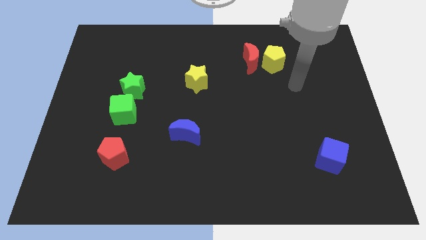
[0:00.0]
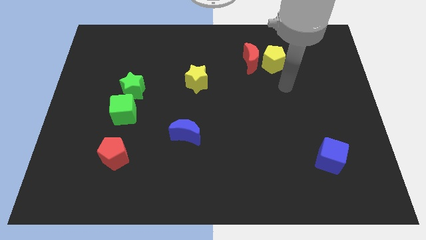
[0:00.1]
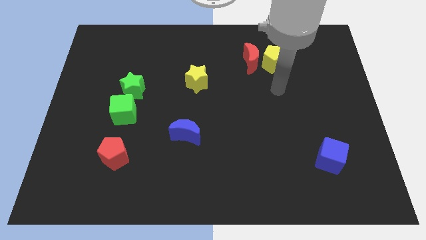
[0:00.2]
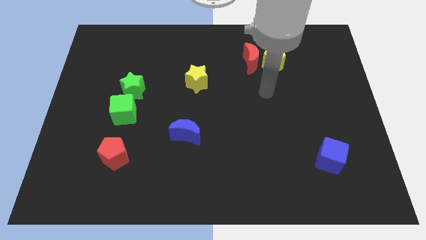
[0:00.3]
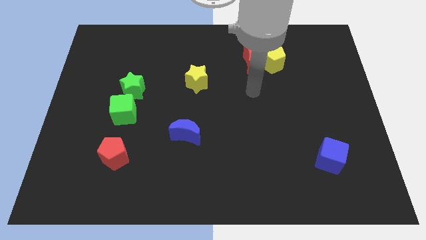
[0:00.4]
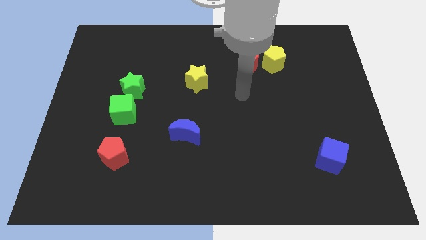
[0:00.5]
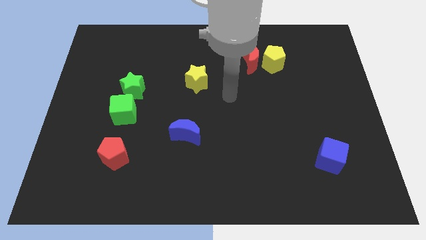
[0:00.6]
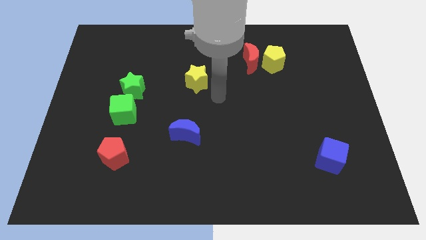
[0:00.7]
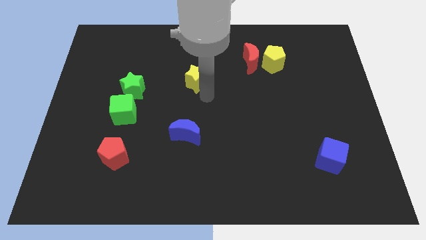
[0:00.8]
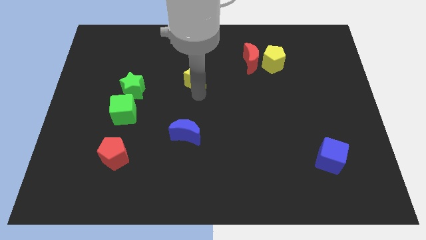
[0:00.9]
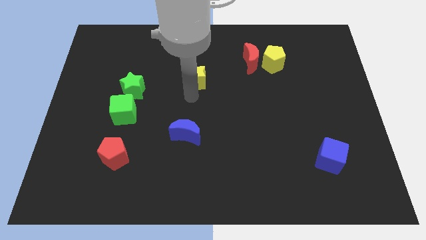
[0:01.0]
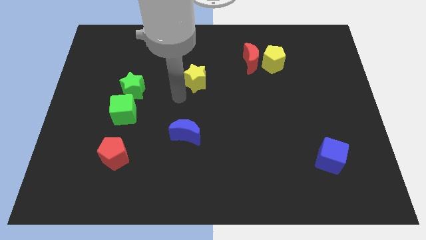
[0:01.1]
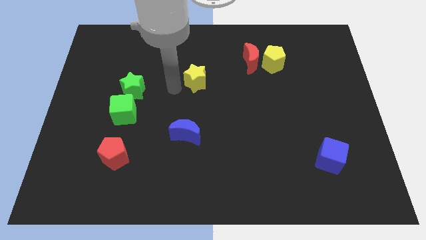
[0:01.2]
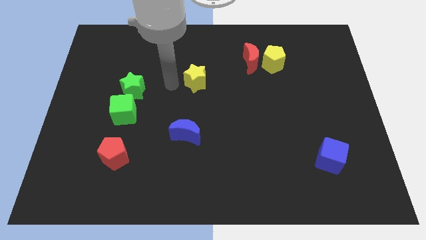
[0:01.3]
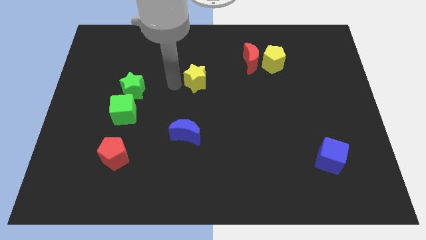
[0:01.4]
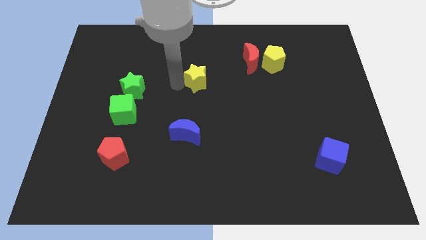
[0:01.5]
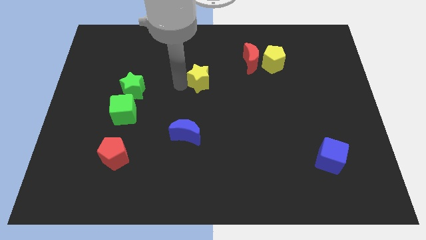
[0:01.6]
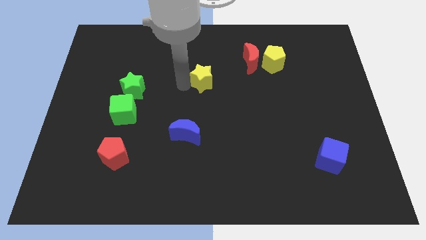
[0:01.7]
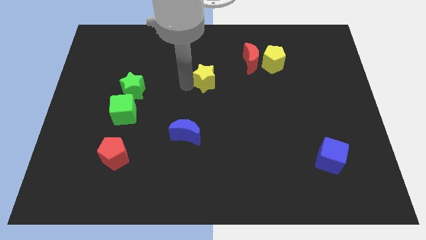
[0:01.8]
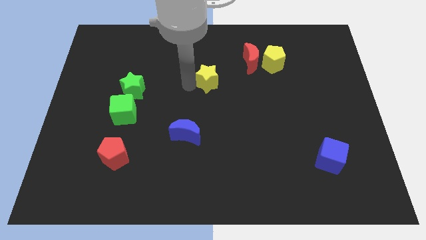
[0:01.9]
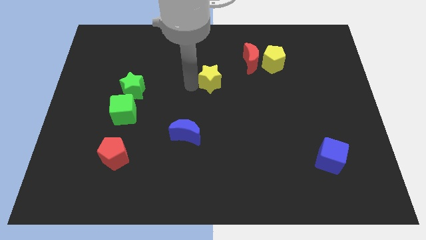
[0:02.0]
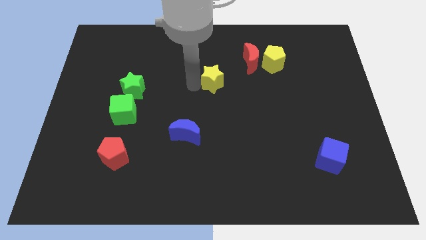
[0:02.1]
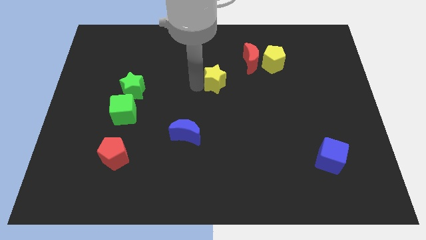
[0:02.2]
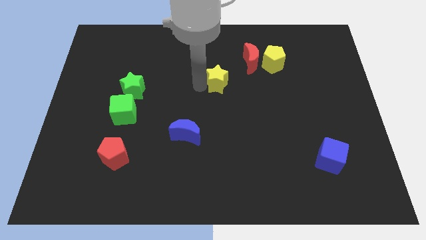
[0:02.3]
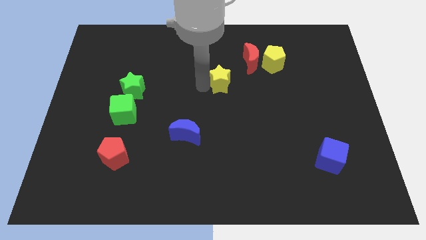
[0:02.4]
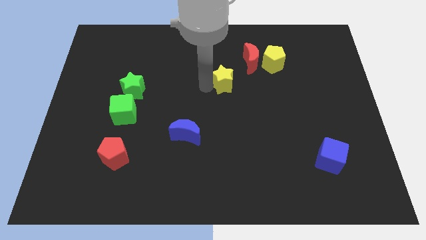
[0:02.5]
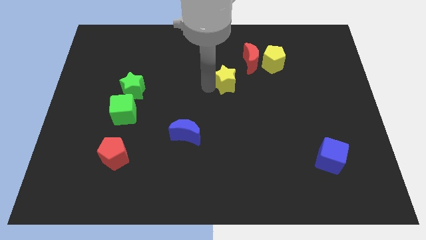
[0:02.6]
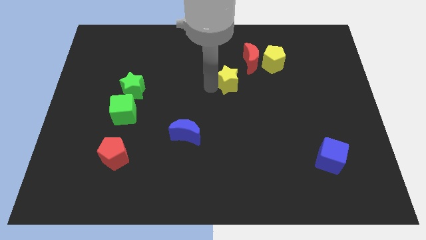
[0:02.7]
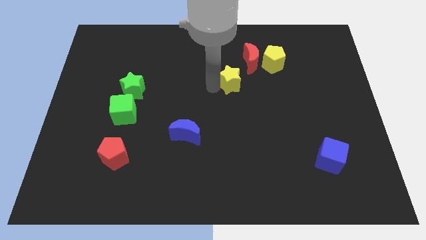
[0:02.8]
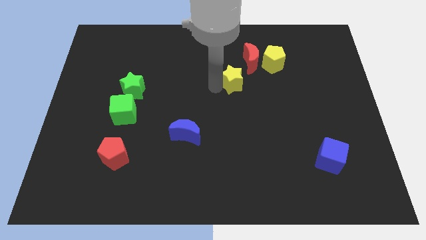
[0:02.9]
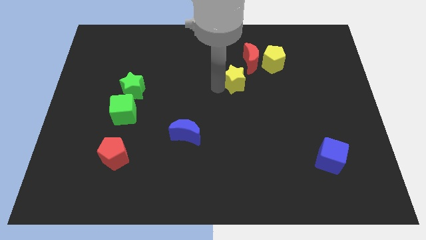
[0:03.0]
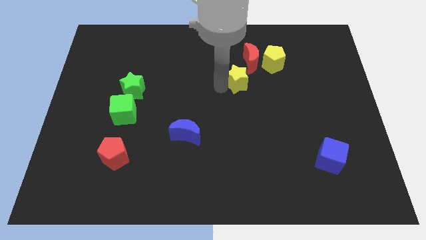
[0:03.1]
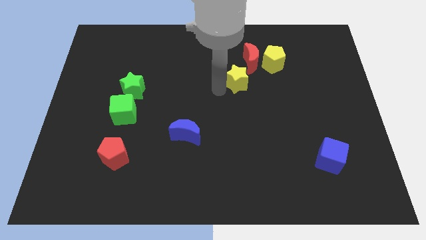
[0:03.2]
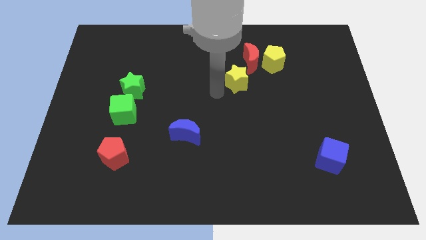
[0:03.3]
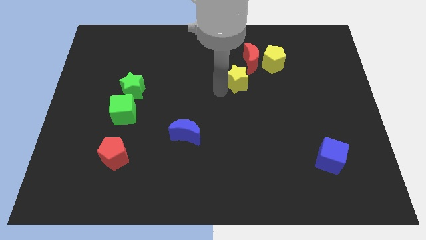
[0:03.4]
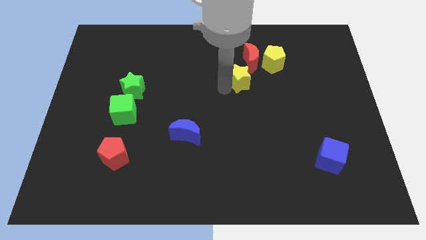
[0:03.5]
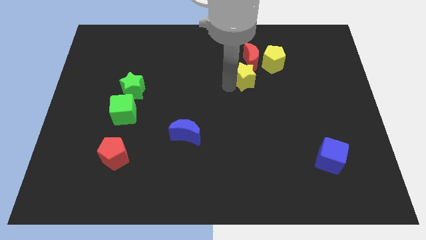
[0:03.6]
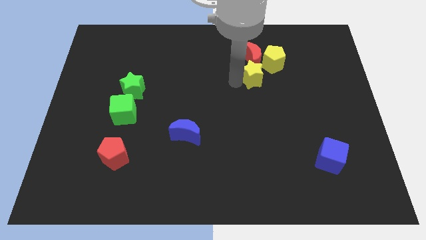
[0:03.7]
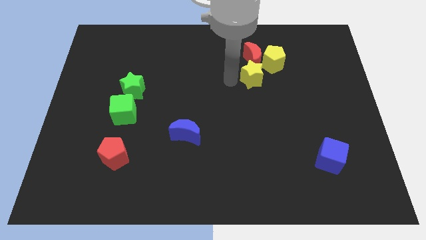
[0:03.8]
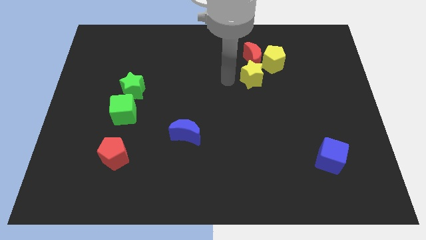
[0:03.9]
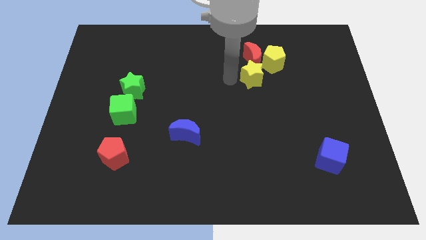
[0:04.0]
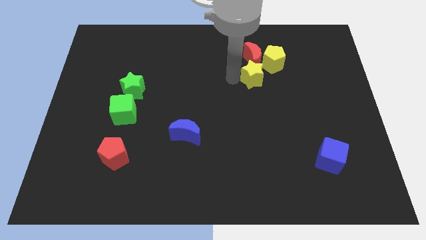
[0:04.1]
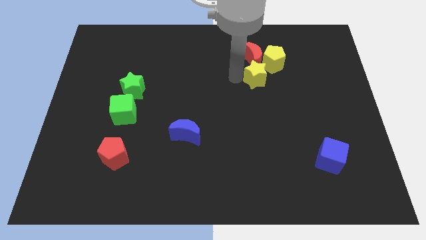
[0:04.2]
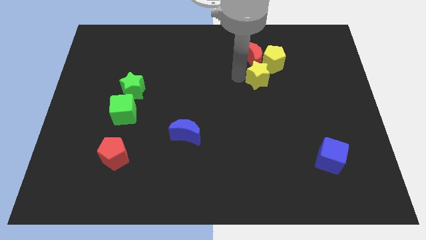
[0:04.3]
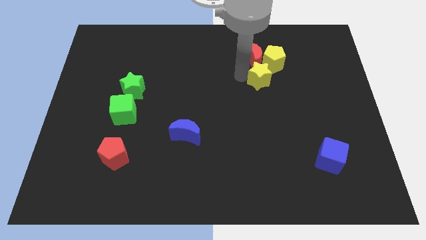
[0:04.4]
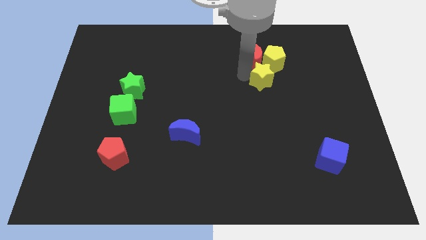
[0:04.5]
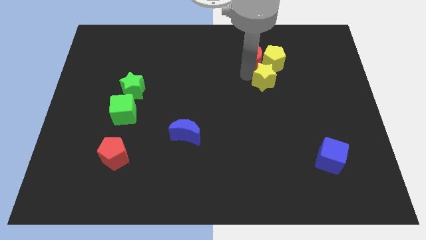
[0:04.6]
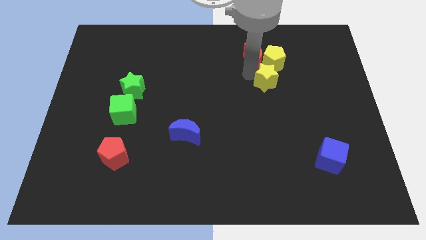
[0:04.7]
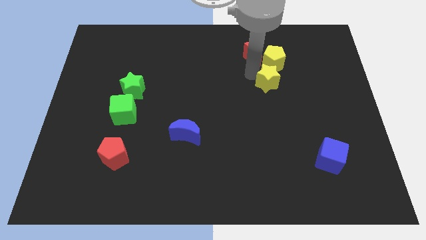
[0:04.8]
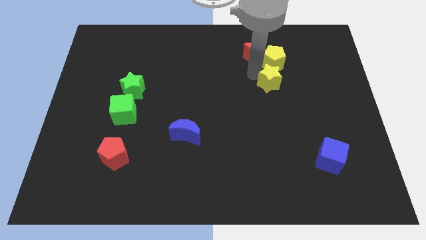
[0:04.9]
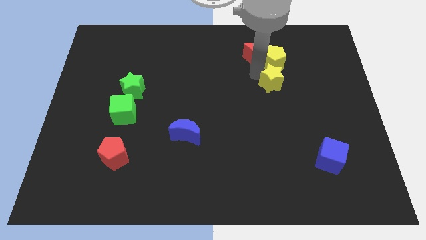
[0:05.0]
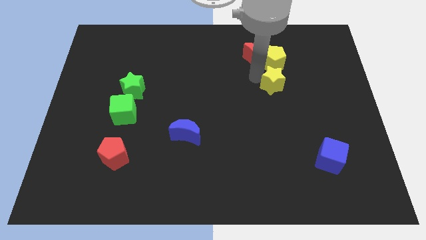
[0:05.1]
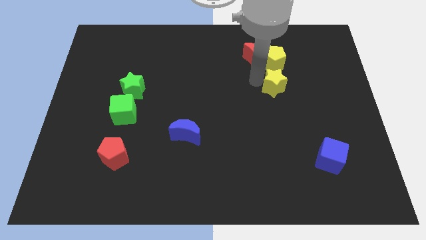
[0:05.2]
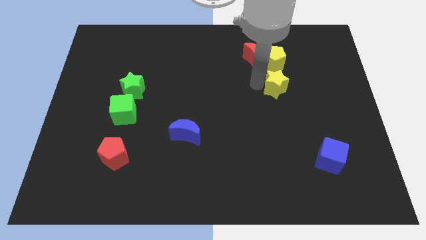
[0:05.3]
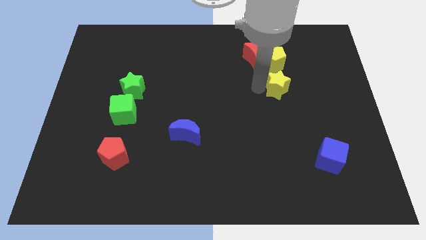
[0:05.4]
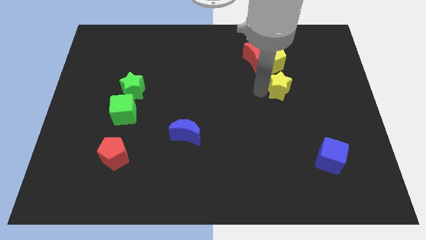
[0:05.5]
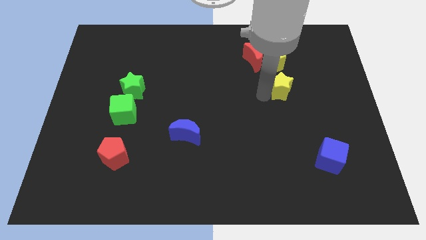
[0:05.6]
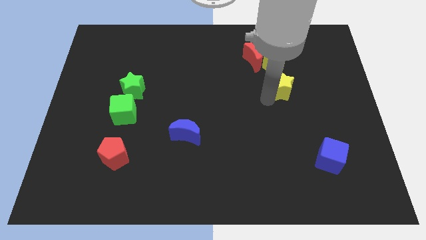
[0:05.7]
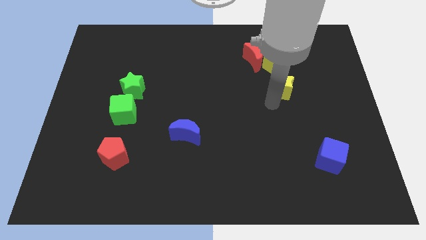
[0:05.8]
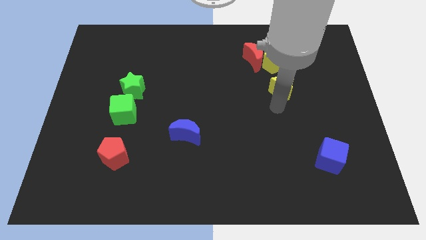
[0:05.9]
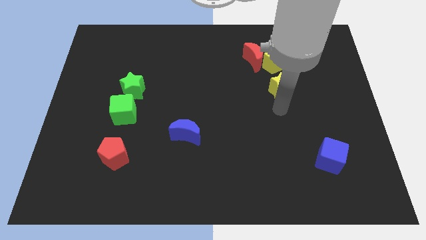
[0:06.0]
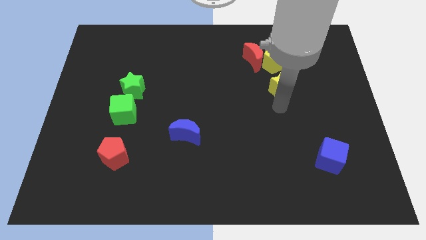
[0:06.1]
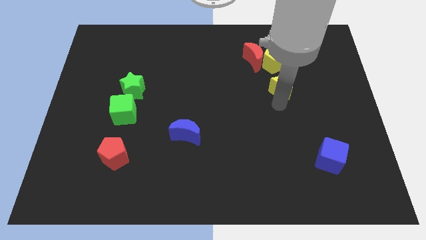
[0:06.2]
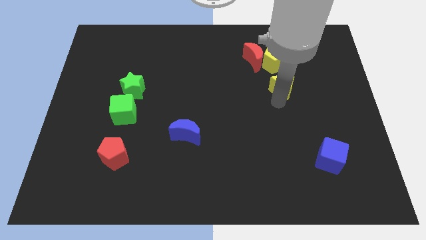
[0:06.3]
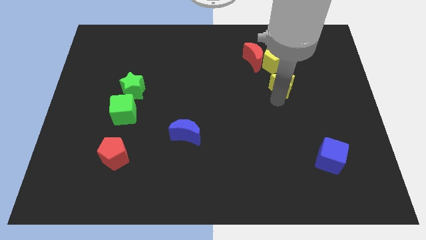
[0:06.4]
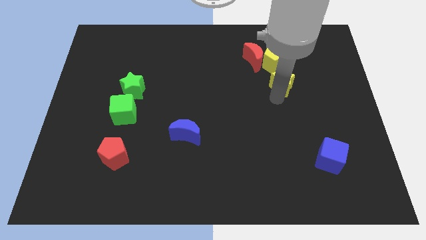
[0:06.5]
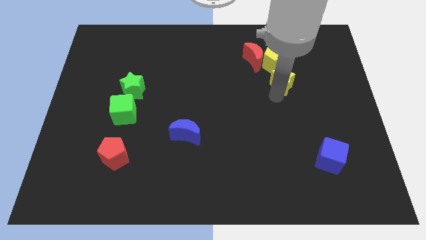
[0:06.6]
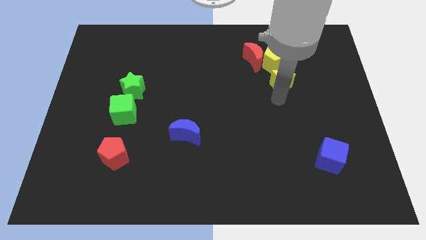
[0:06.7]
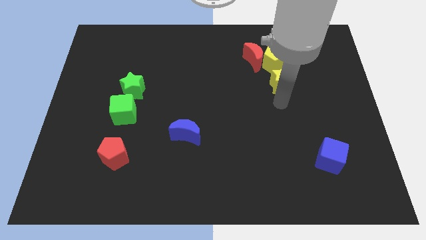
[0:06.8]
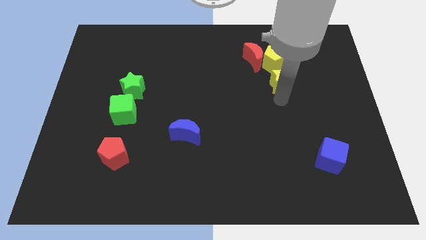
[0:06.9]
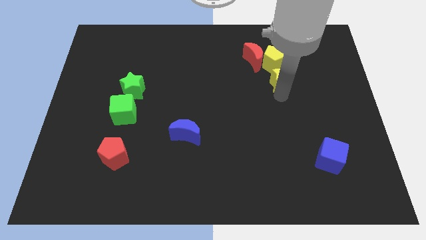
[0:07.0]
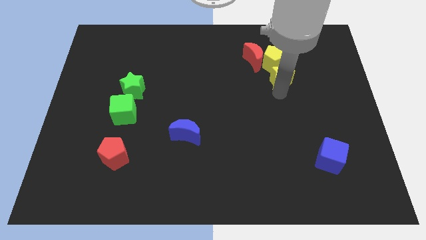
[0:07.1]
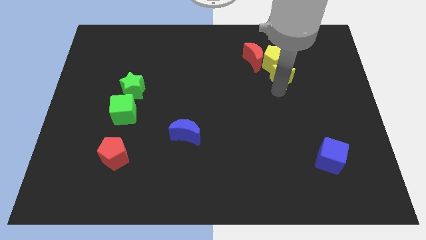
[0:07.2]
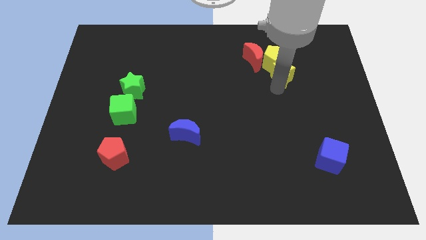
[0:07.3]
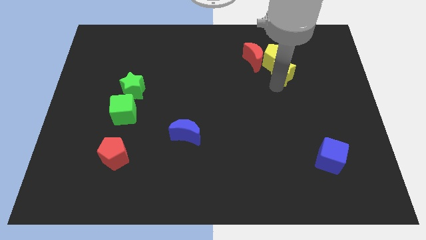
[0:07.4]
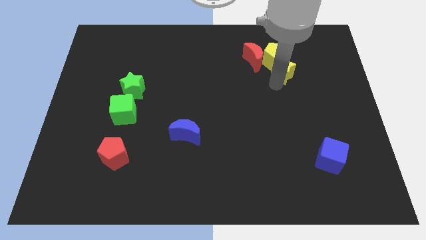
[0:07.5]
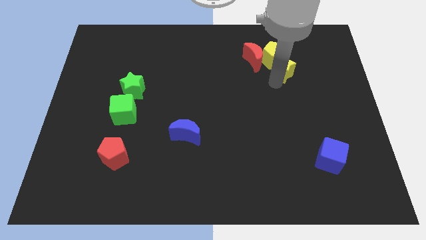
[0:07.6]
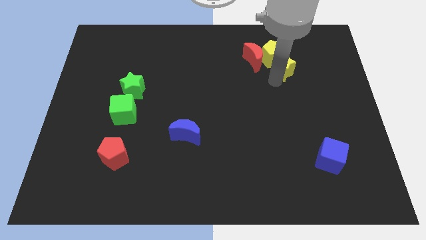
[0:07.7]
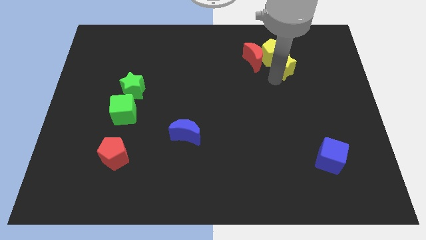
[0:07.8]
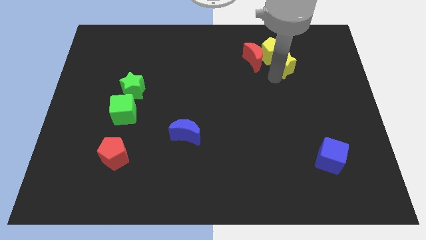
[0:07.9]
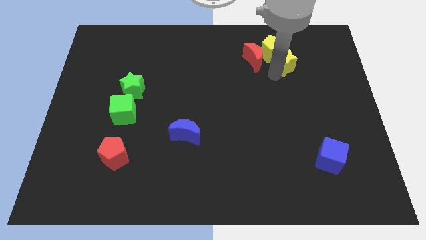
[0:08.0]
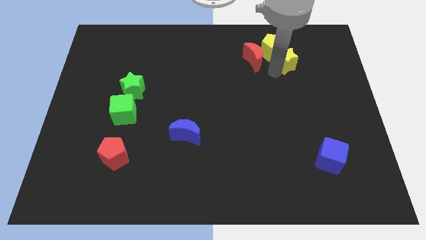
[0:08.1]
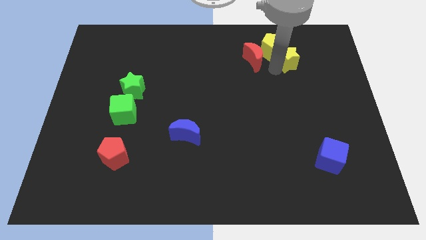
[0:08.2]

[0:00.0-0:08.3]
slide the yellow star to the right side of the yellow pentagon
